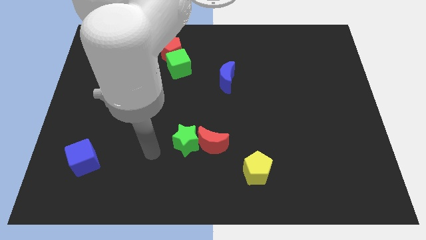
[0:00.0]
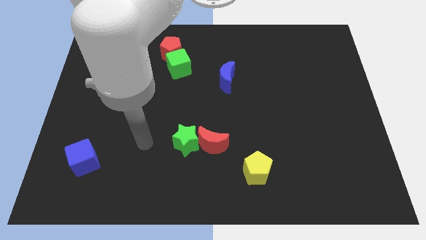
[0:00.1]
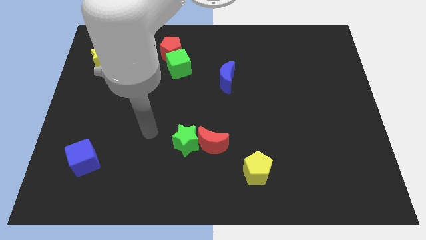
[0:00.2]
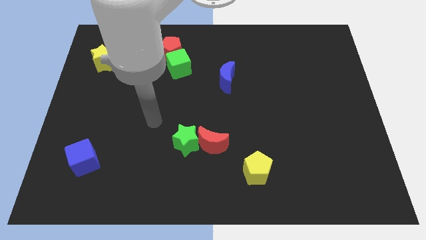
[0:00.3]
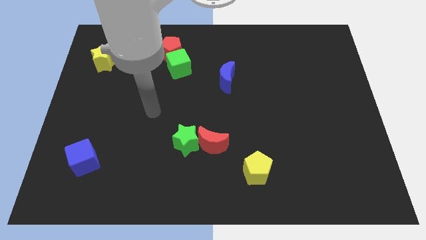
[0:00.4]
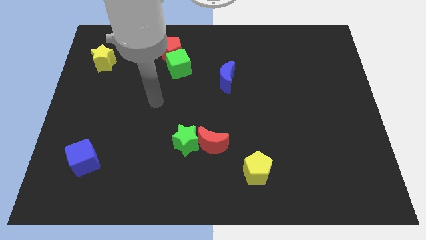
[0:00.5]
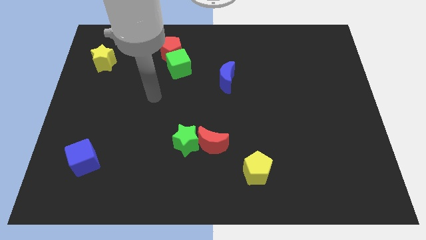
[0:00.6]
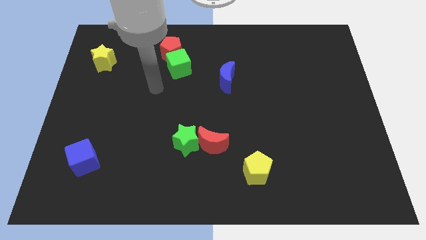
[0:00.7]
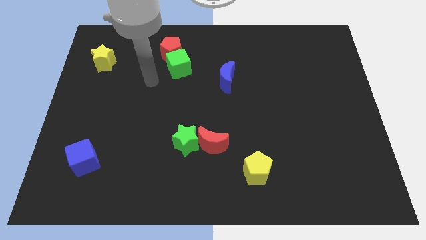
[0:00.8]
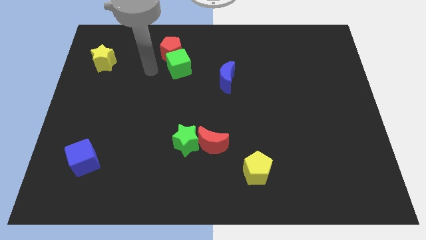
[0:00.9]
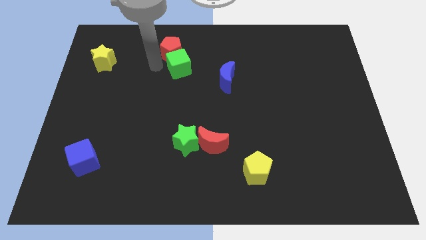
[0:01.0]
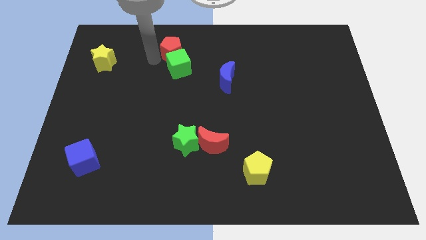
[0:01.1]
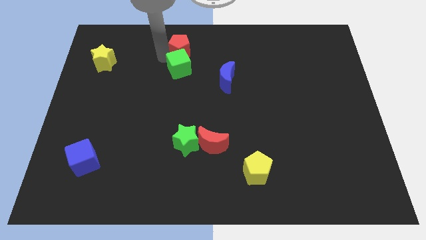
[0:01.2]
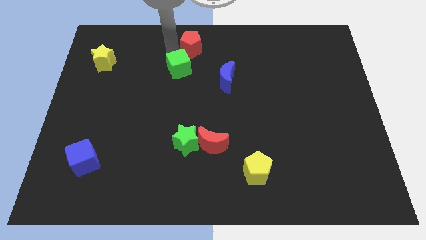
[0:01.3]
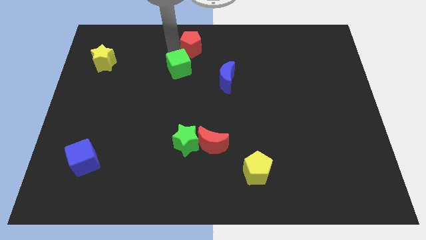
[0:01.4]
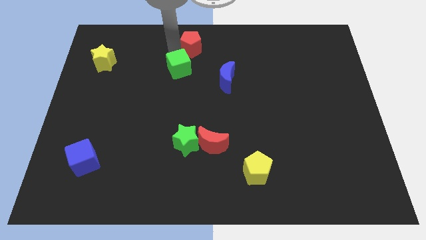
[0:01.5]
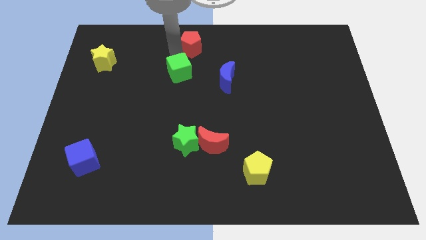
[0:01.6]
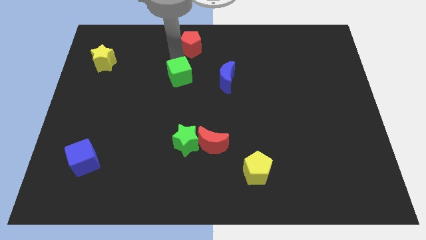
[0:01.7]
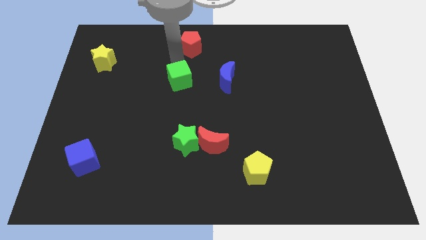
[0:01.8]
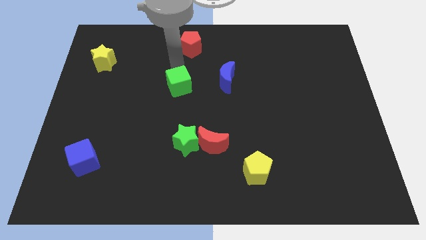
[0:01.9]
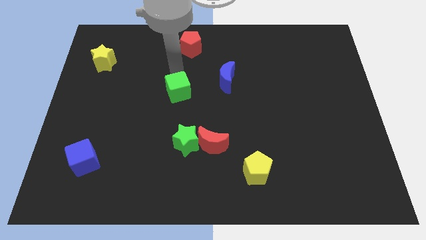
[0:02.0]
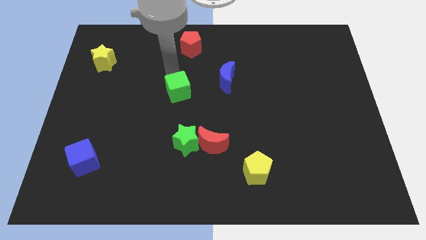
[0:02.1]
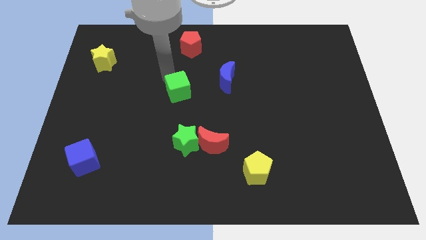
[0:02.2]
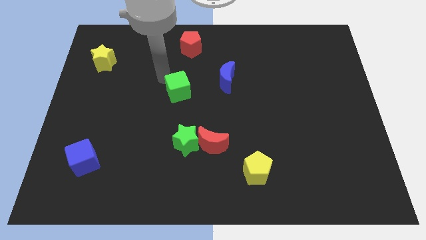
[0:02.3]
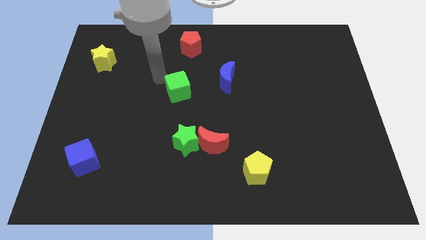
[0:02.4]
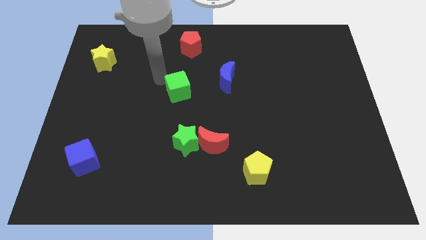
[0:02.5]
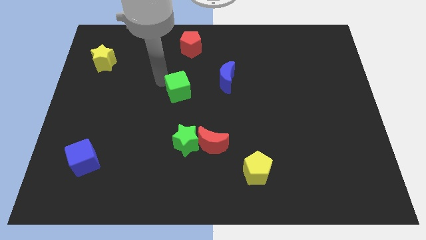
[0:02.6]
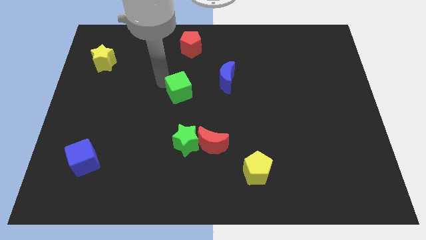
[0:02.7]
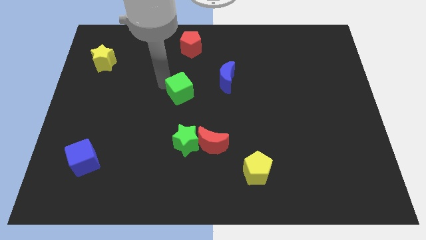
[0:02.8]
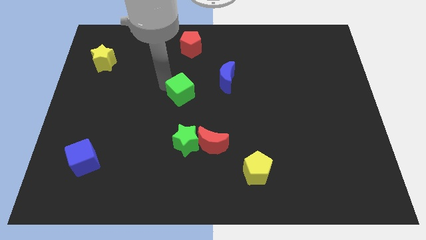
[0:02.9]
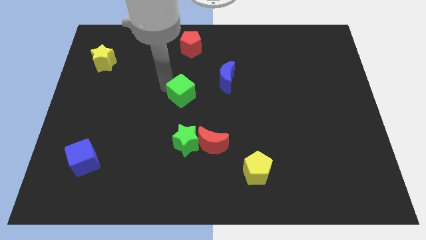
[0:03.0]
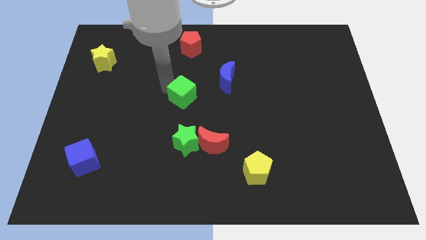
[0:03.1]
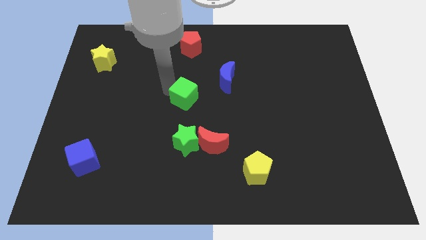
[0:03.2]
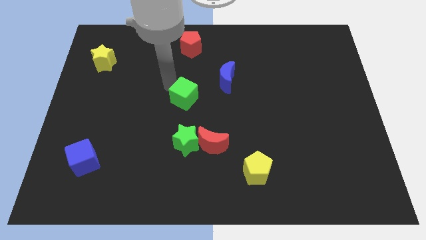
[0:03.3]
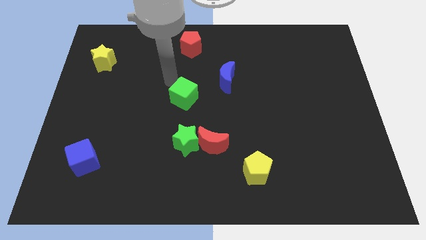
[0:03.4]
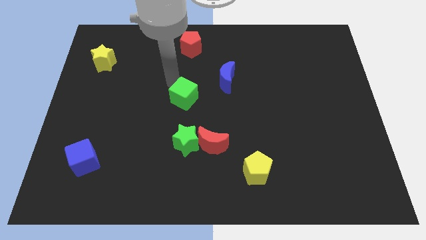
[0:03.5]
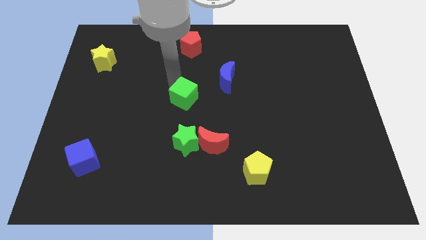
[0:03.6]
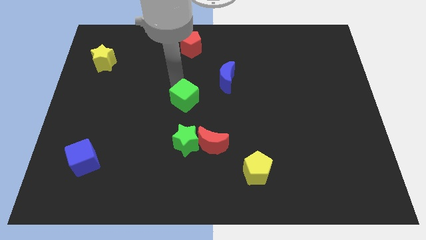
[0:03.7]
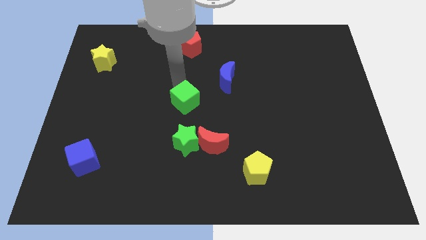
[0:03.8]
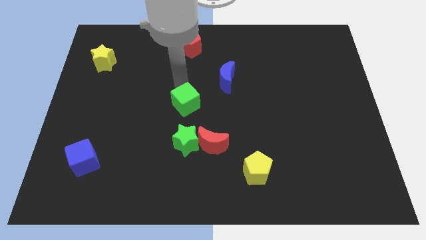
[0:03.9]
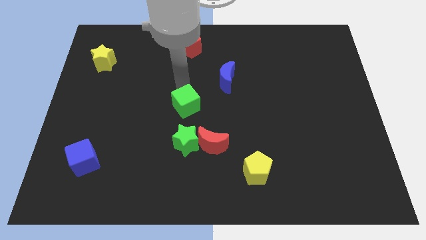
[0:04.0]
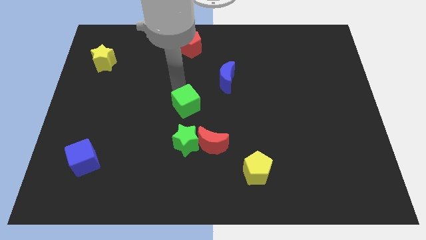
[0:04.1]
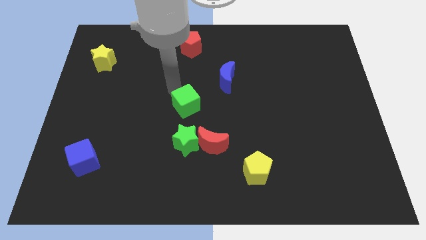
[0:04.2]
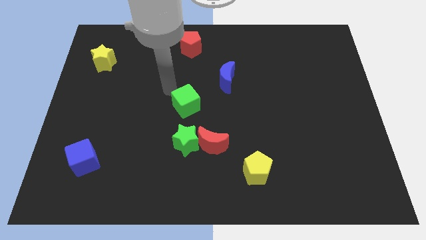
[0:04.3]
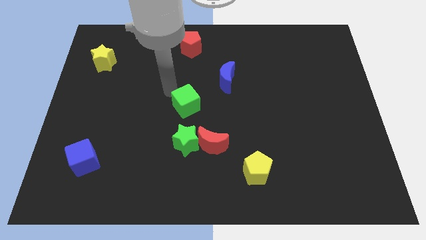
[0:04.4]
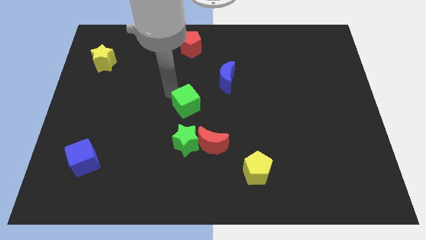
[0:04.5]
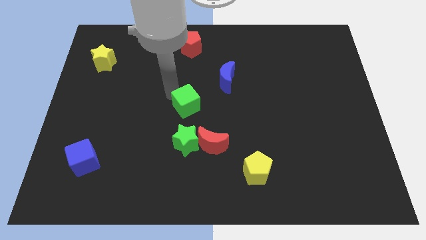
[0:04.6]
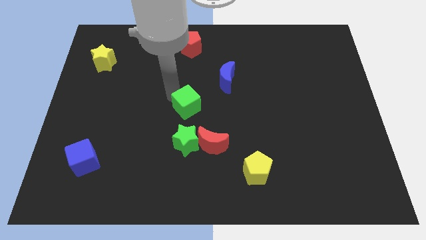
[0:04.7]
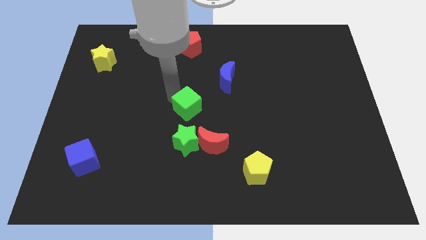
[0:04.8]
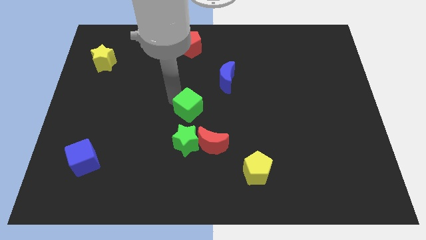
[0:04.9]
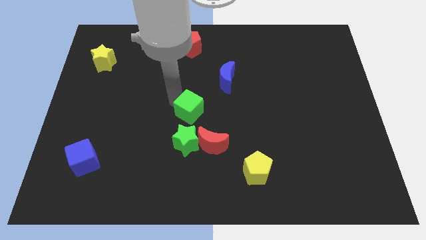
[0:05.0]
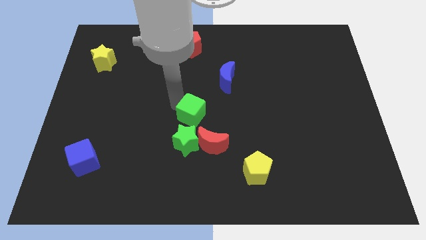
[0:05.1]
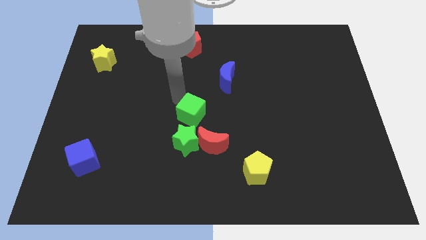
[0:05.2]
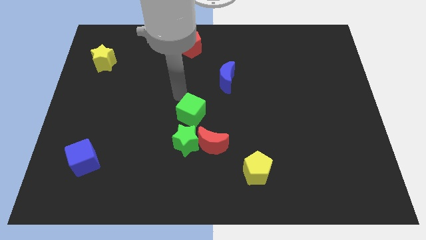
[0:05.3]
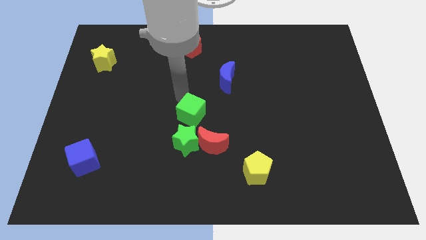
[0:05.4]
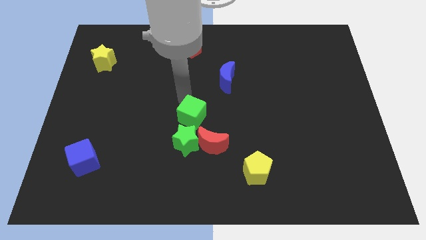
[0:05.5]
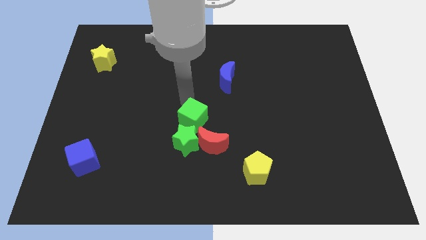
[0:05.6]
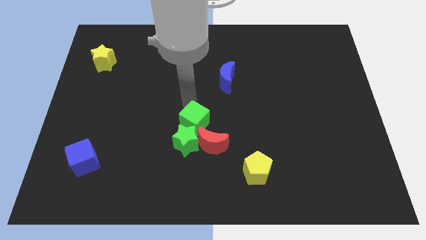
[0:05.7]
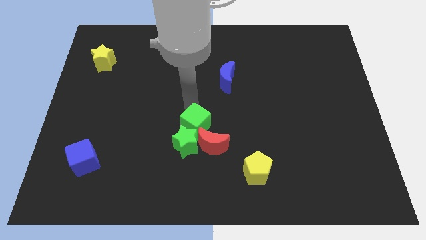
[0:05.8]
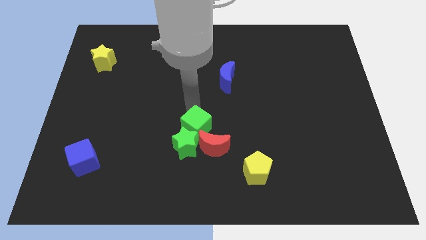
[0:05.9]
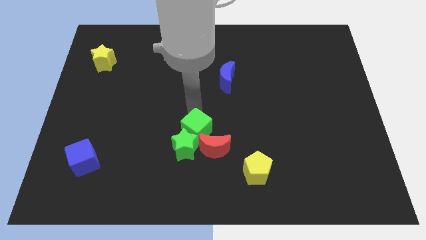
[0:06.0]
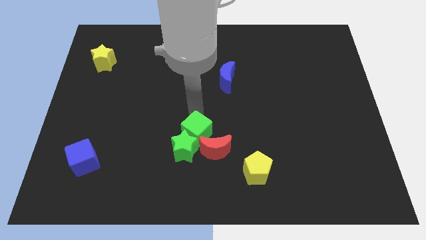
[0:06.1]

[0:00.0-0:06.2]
put the green cube close to the red moon

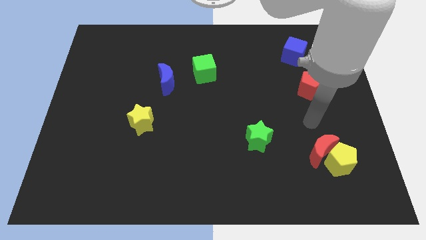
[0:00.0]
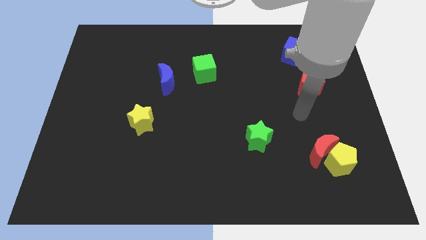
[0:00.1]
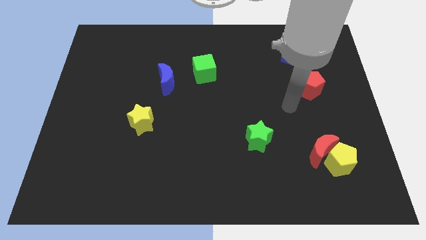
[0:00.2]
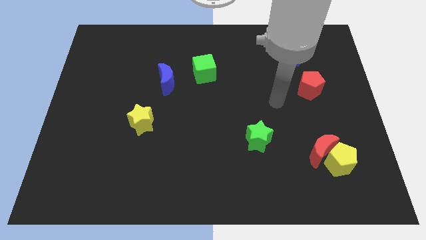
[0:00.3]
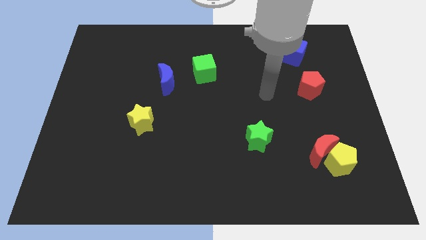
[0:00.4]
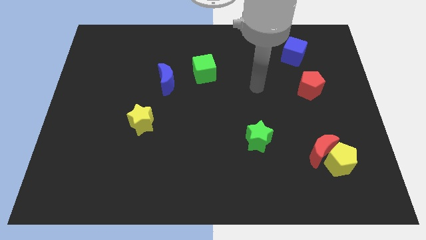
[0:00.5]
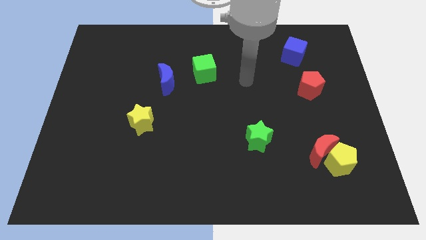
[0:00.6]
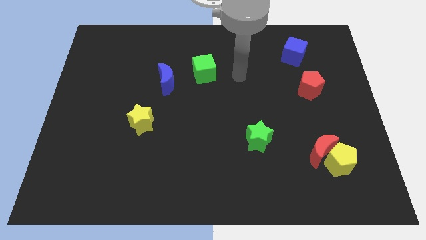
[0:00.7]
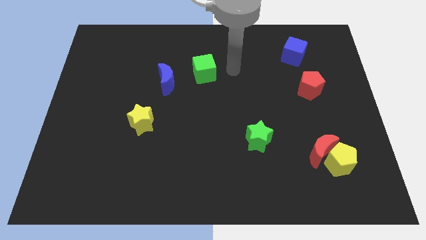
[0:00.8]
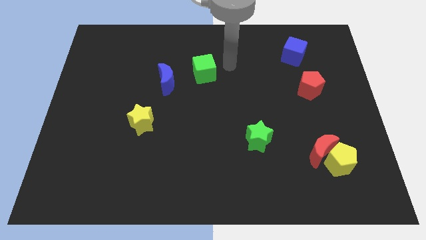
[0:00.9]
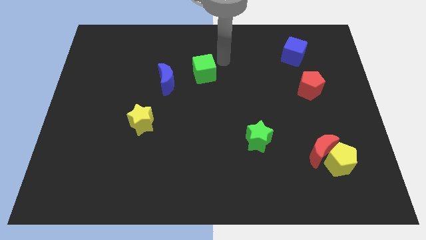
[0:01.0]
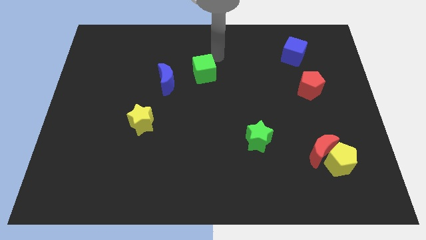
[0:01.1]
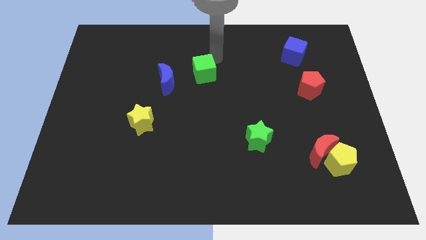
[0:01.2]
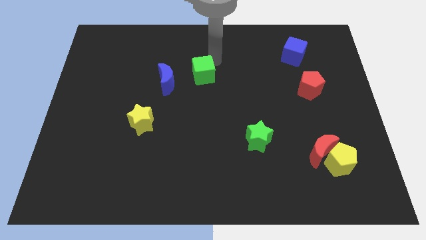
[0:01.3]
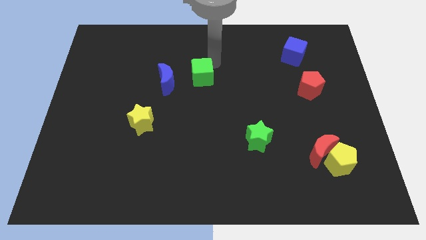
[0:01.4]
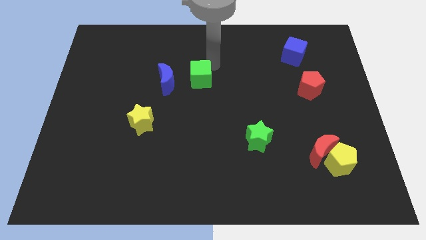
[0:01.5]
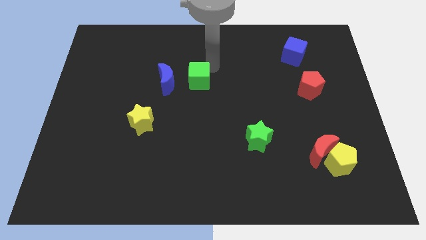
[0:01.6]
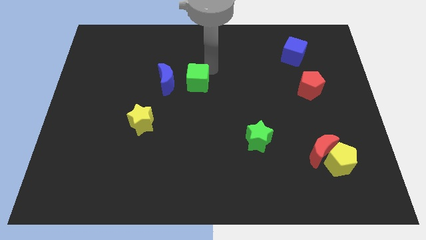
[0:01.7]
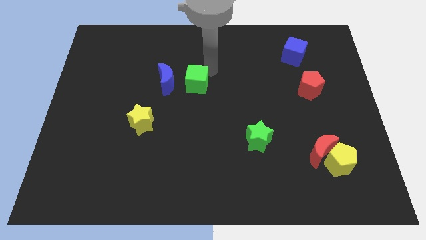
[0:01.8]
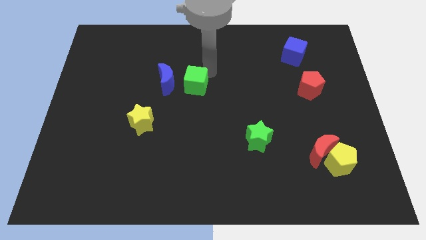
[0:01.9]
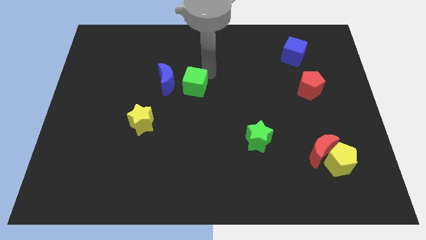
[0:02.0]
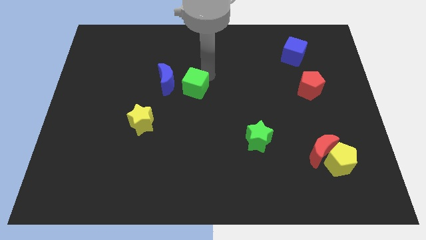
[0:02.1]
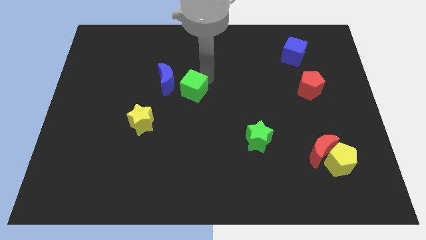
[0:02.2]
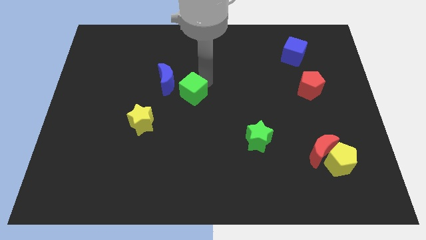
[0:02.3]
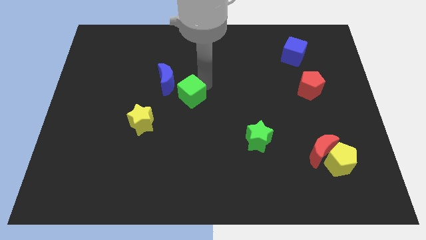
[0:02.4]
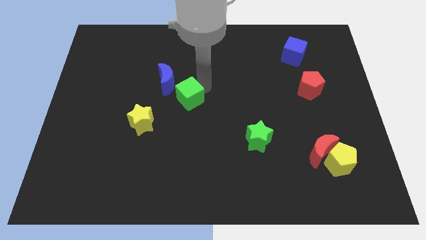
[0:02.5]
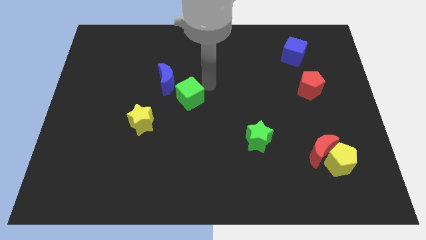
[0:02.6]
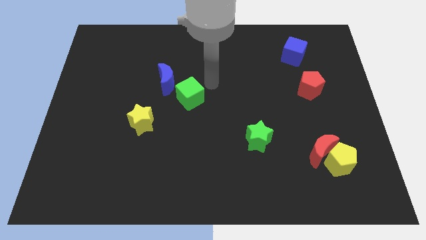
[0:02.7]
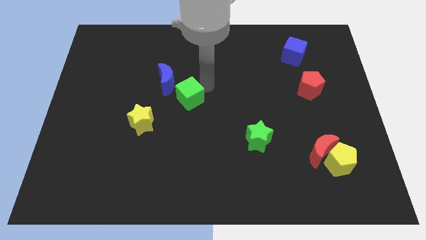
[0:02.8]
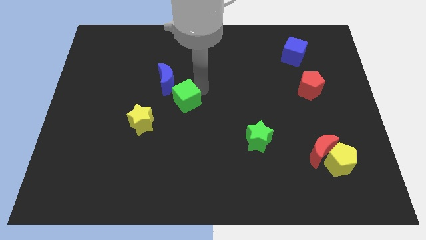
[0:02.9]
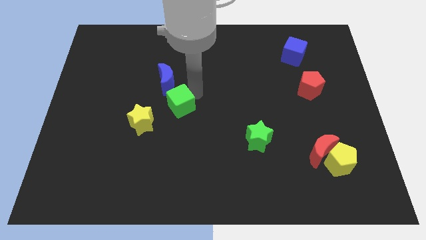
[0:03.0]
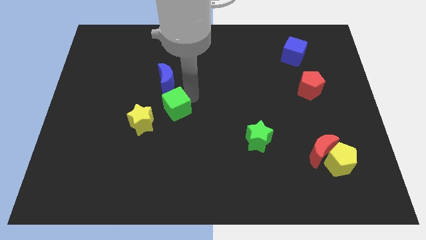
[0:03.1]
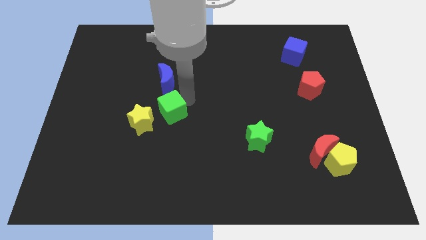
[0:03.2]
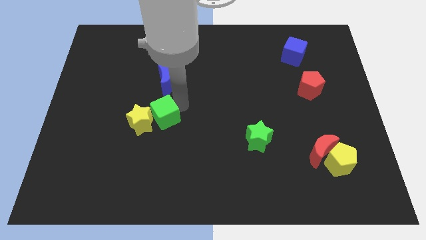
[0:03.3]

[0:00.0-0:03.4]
move the green cube next to the yellow star
